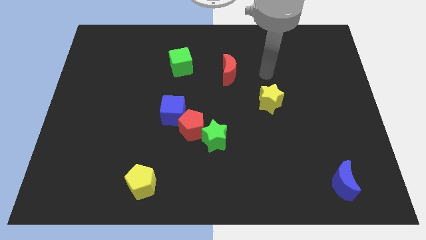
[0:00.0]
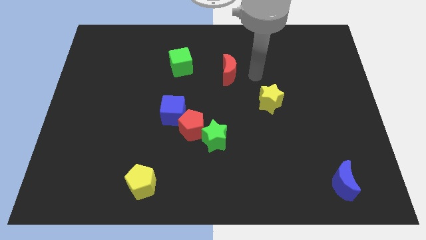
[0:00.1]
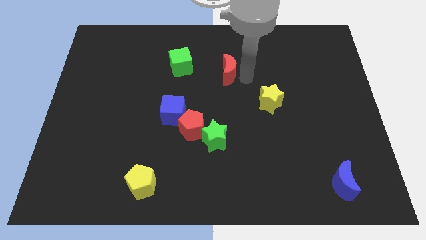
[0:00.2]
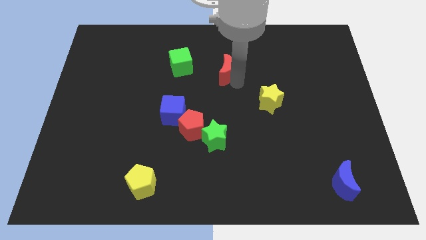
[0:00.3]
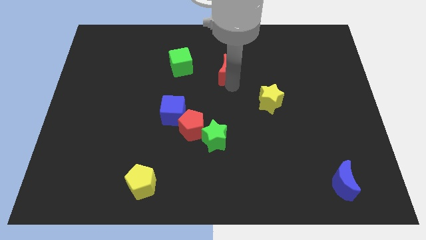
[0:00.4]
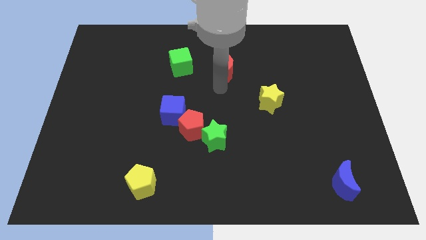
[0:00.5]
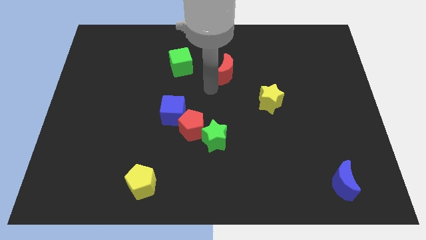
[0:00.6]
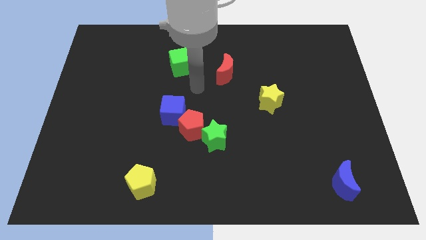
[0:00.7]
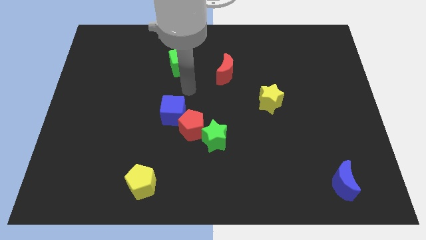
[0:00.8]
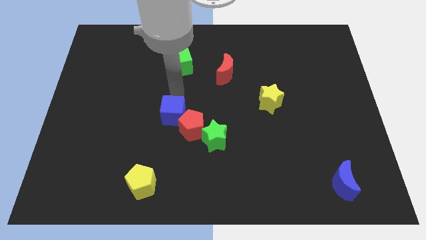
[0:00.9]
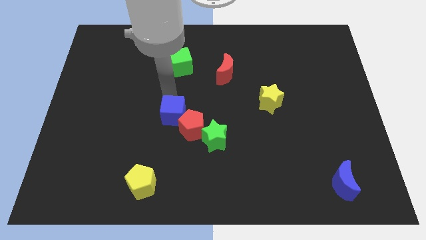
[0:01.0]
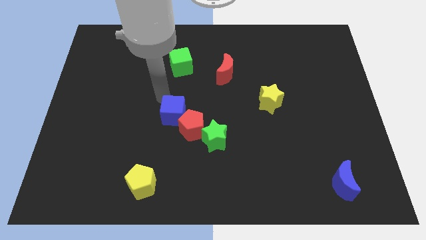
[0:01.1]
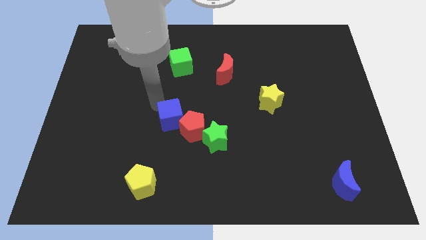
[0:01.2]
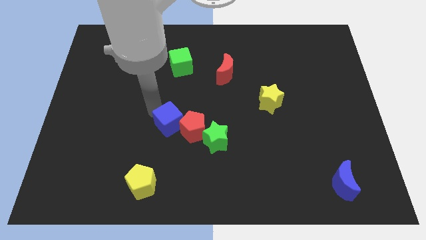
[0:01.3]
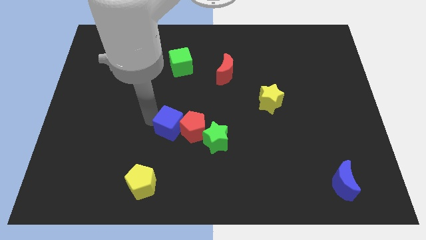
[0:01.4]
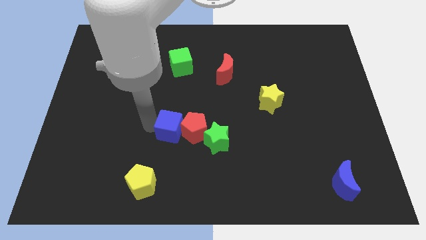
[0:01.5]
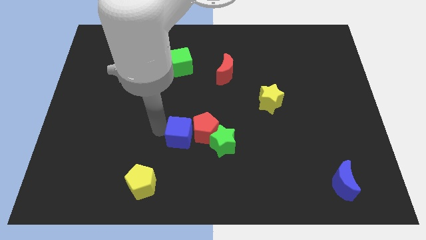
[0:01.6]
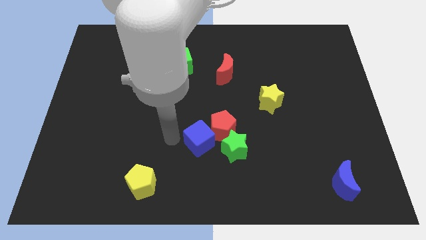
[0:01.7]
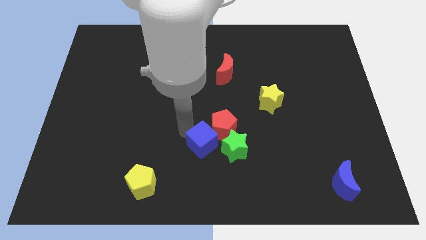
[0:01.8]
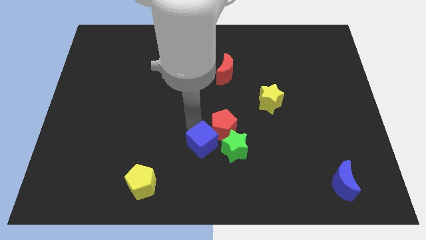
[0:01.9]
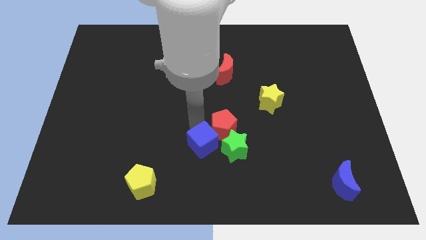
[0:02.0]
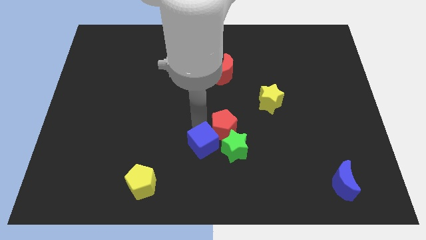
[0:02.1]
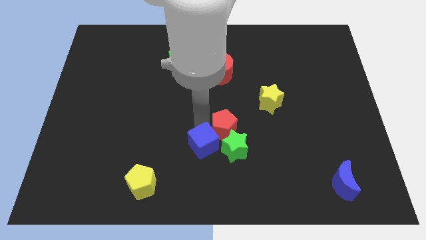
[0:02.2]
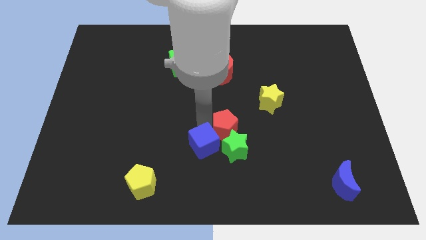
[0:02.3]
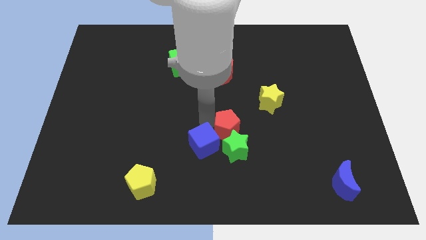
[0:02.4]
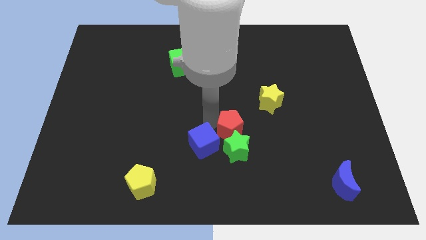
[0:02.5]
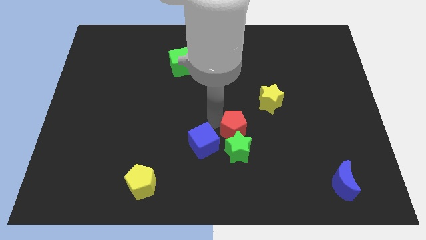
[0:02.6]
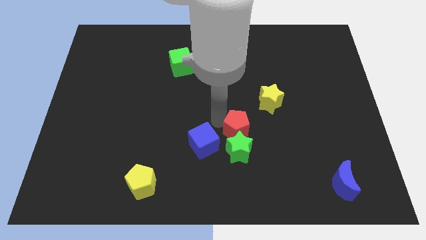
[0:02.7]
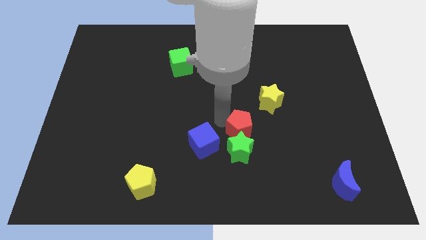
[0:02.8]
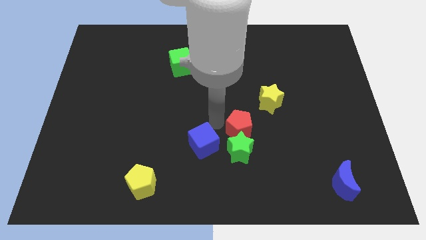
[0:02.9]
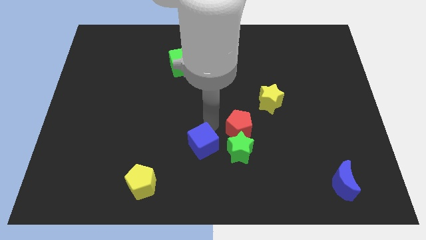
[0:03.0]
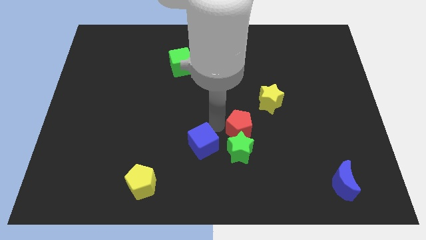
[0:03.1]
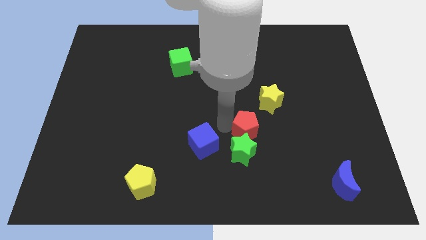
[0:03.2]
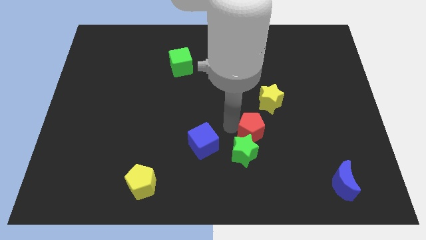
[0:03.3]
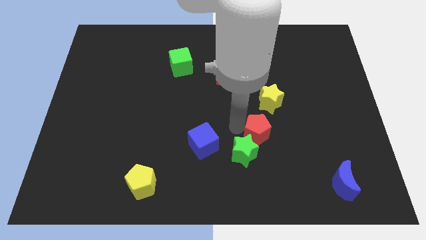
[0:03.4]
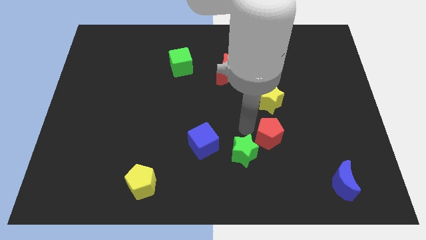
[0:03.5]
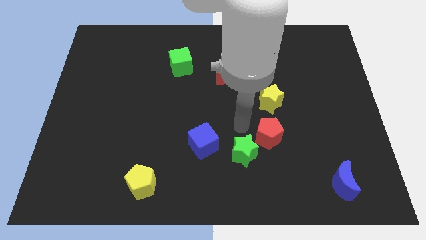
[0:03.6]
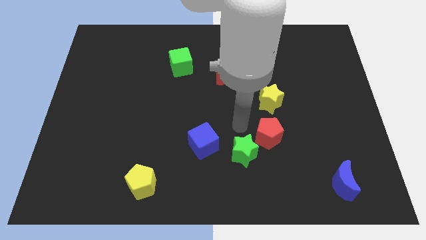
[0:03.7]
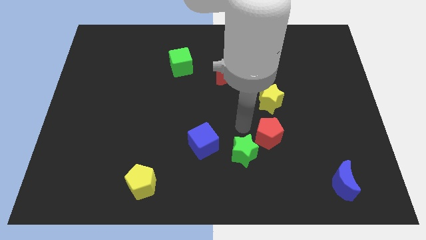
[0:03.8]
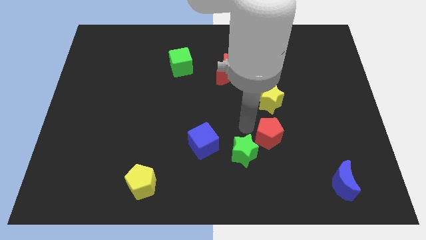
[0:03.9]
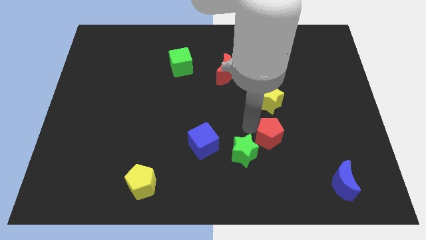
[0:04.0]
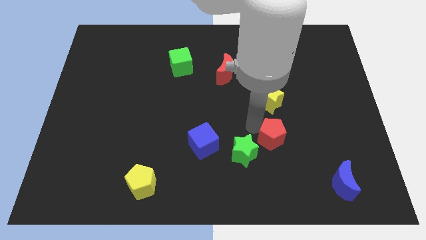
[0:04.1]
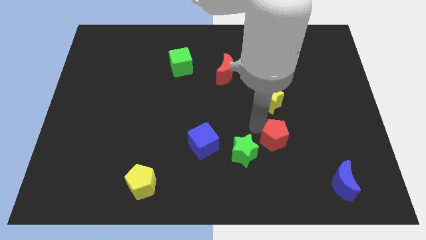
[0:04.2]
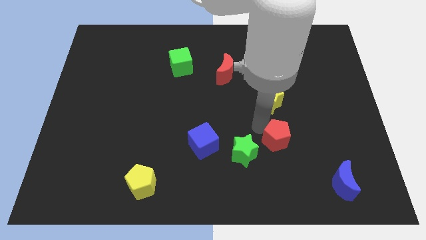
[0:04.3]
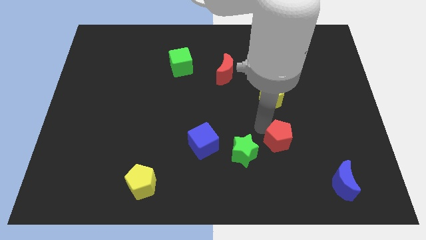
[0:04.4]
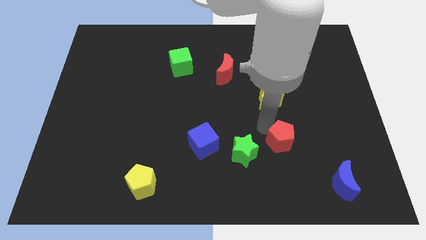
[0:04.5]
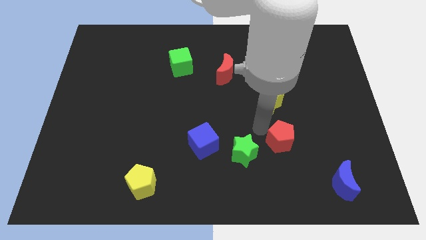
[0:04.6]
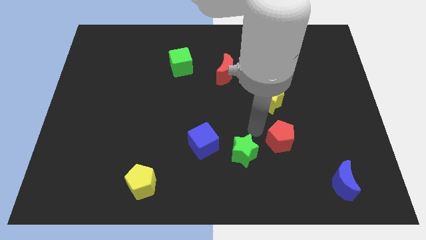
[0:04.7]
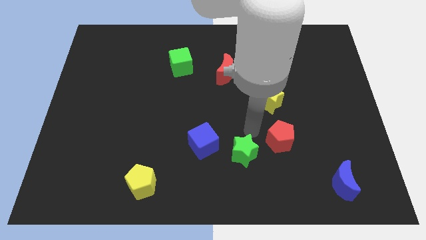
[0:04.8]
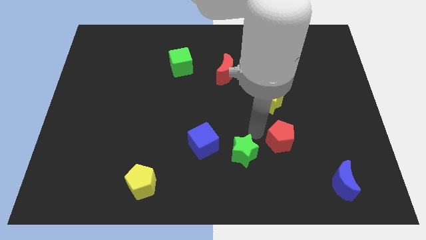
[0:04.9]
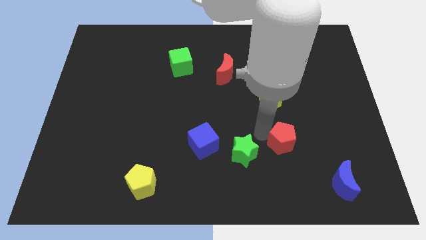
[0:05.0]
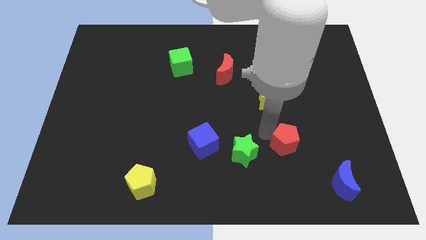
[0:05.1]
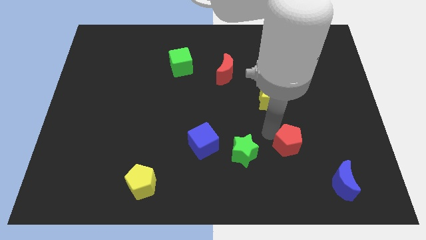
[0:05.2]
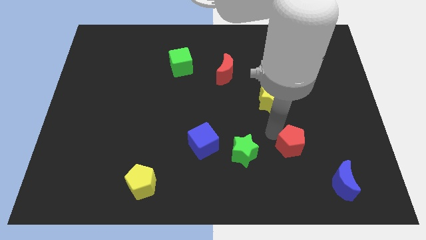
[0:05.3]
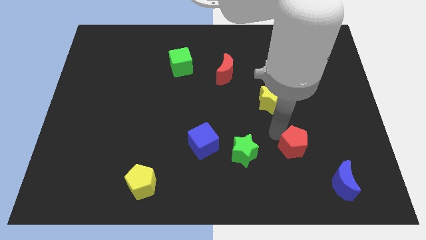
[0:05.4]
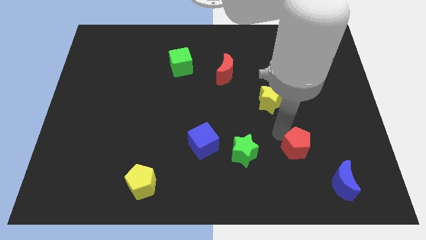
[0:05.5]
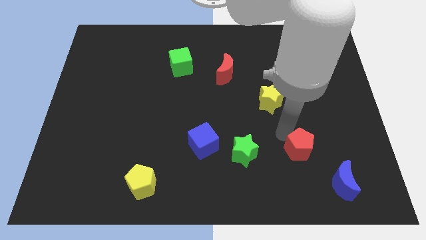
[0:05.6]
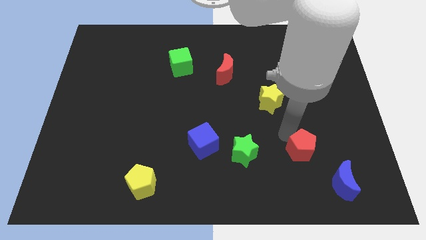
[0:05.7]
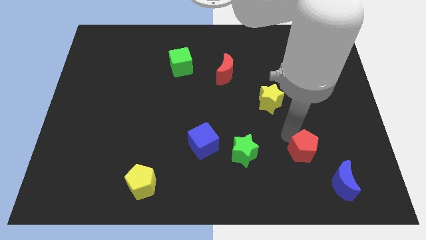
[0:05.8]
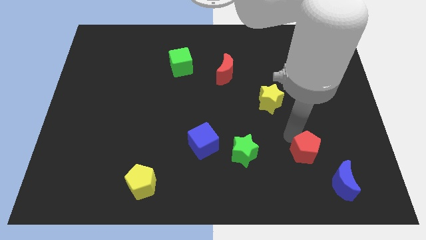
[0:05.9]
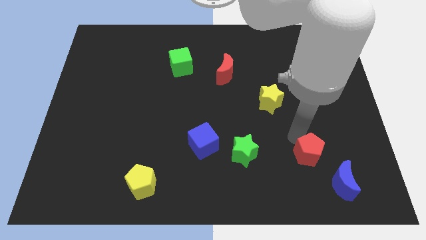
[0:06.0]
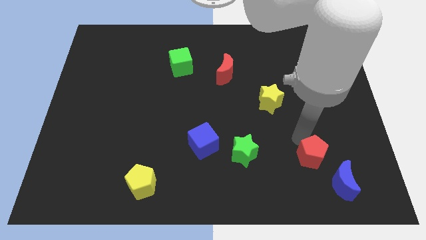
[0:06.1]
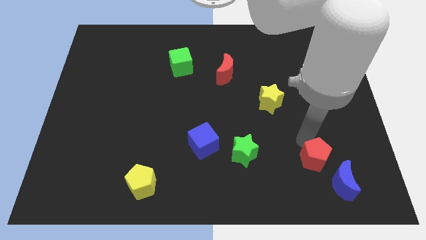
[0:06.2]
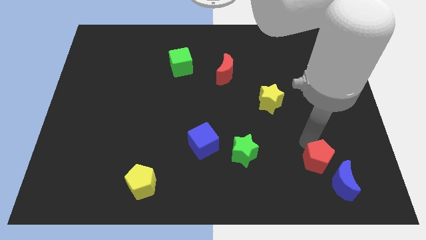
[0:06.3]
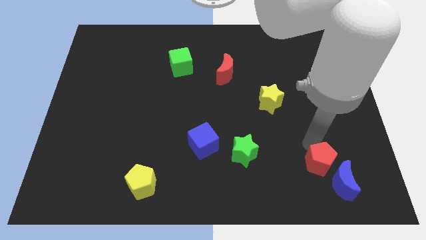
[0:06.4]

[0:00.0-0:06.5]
slide the red pentagon to the blue moon

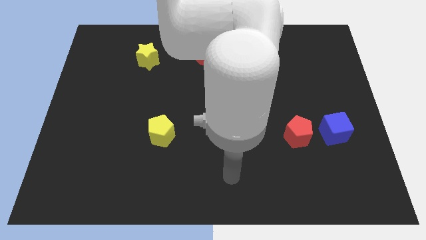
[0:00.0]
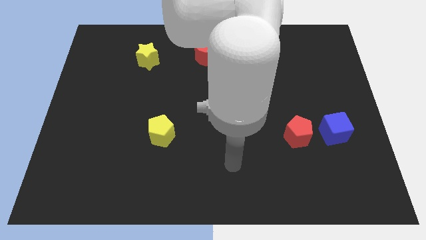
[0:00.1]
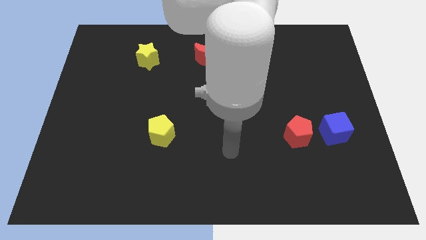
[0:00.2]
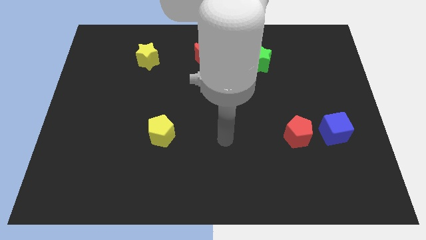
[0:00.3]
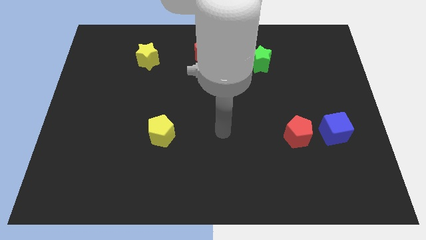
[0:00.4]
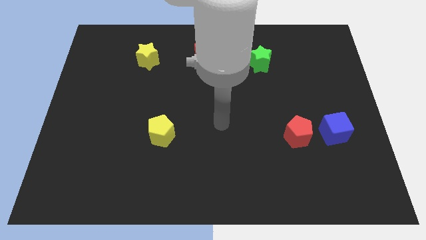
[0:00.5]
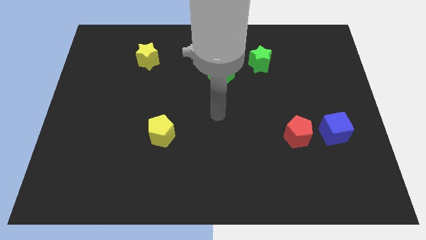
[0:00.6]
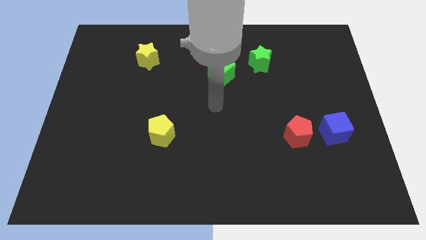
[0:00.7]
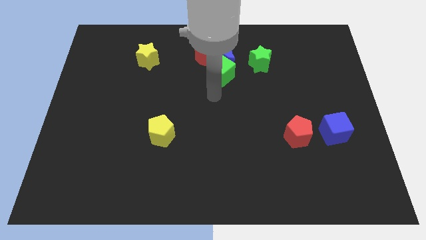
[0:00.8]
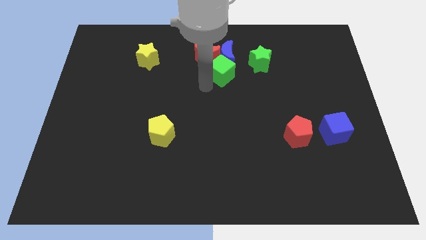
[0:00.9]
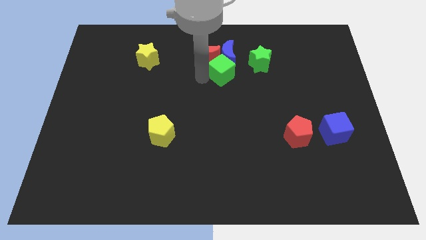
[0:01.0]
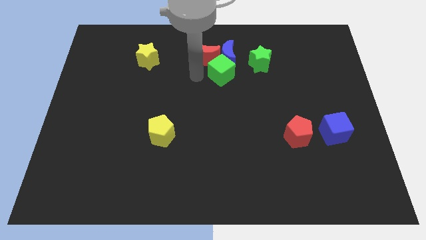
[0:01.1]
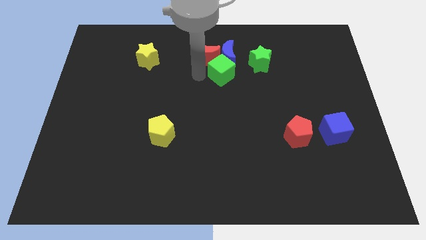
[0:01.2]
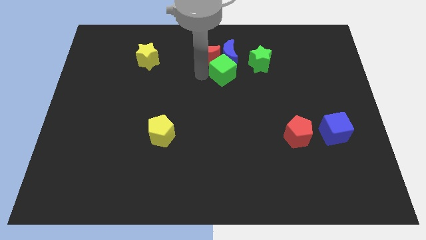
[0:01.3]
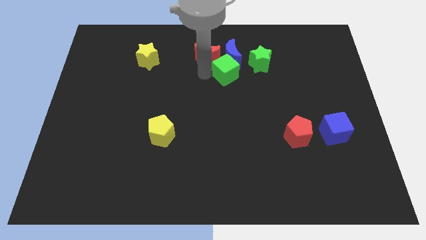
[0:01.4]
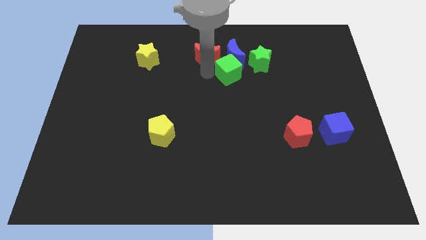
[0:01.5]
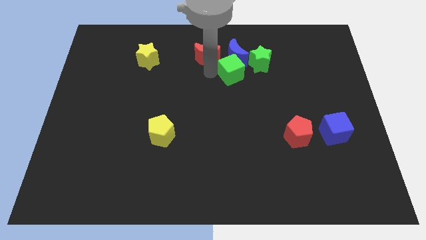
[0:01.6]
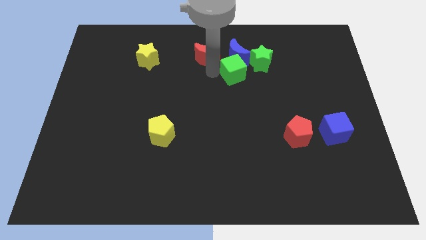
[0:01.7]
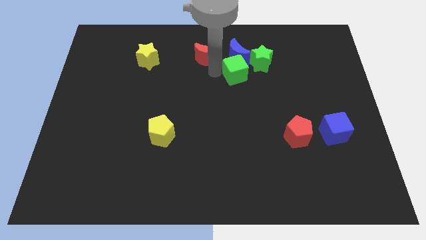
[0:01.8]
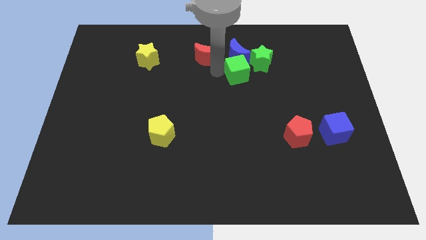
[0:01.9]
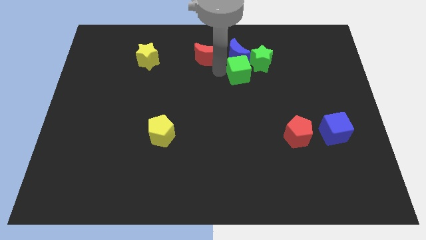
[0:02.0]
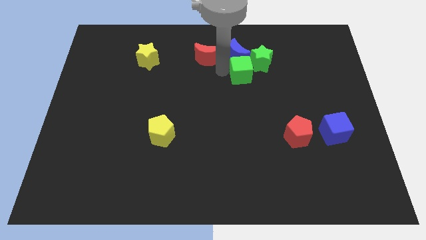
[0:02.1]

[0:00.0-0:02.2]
move the green cube towards the green star
